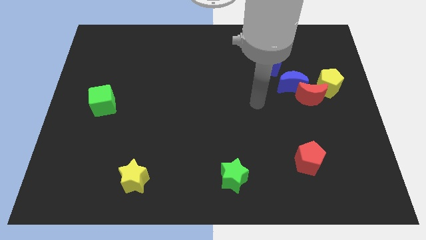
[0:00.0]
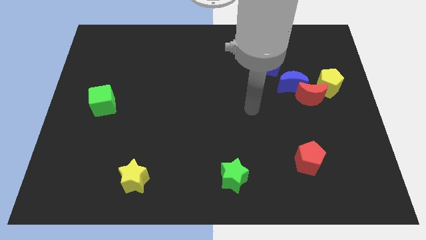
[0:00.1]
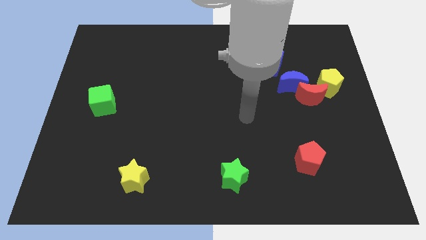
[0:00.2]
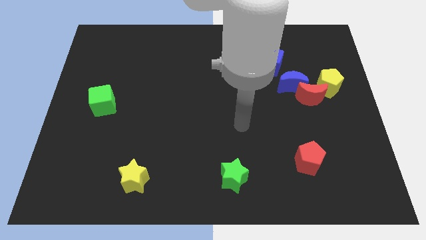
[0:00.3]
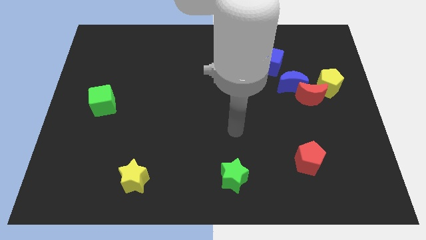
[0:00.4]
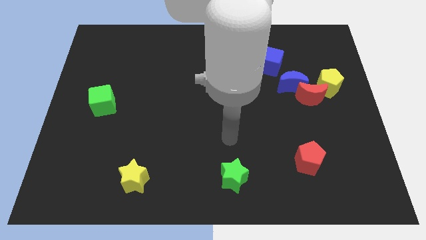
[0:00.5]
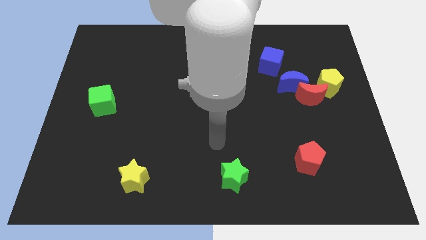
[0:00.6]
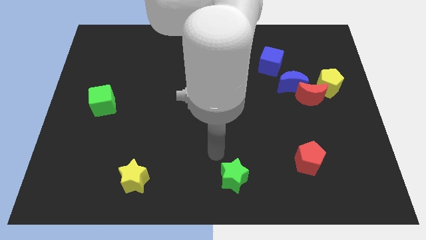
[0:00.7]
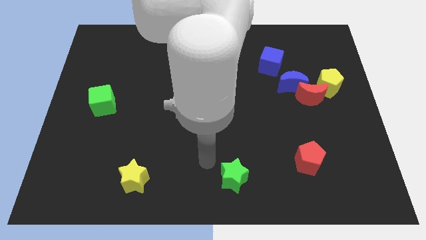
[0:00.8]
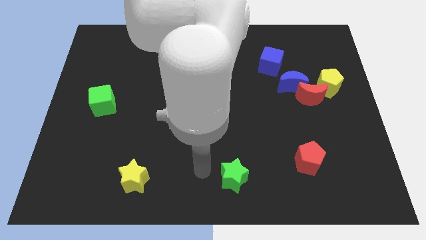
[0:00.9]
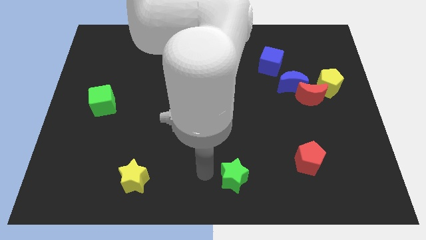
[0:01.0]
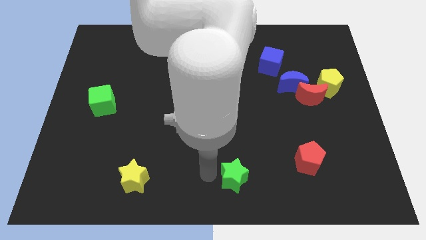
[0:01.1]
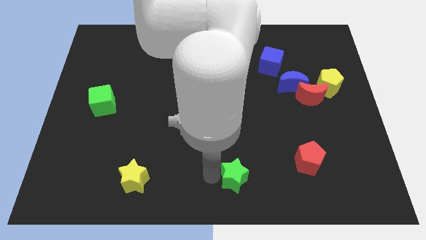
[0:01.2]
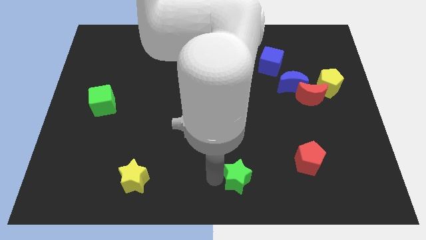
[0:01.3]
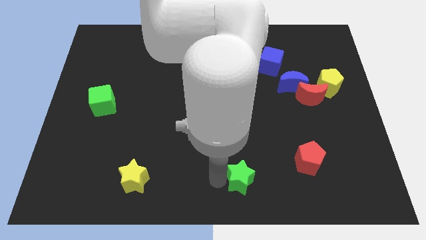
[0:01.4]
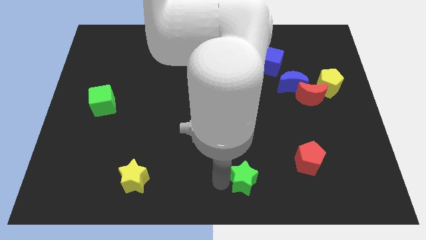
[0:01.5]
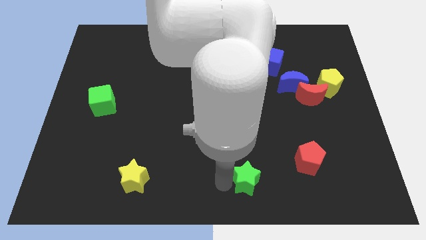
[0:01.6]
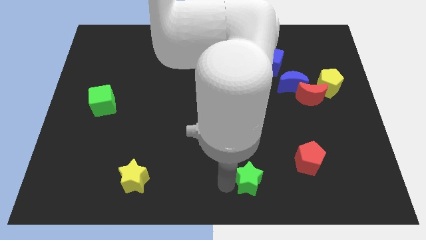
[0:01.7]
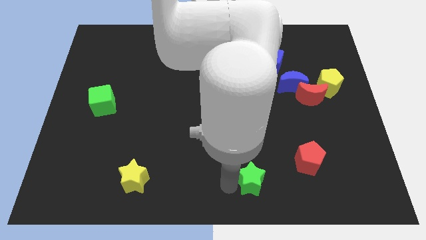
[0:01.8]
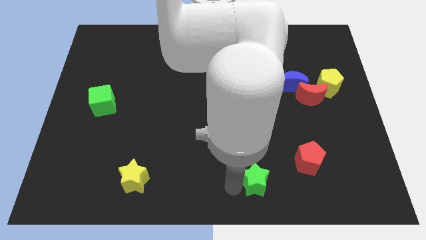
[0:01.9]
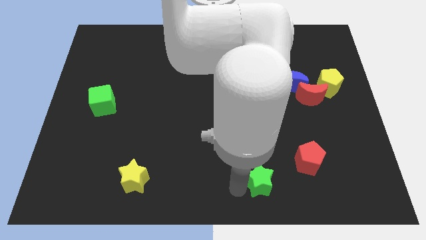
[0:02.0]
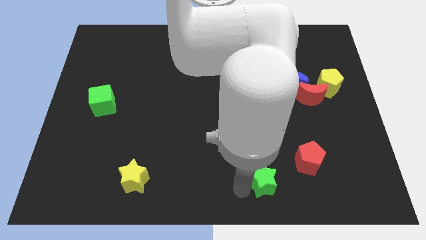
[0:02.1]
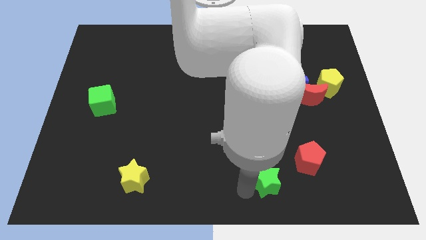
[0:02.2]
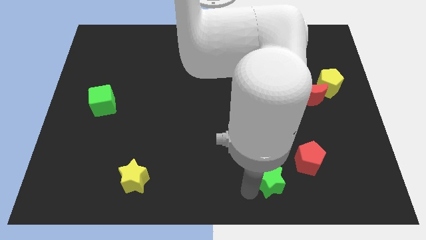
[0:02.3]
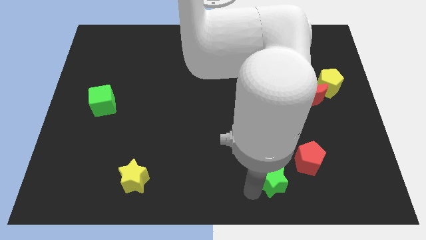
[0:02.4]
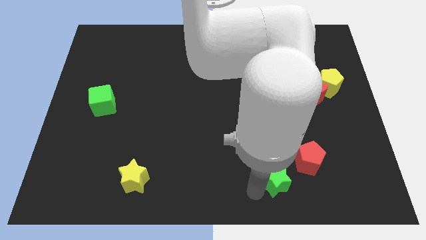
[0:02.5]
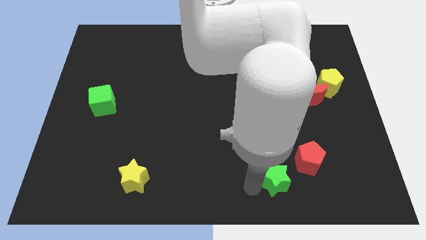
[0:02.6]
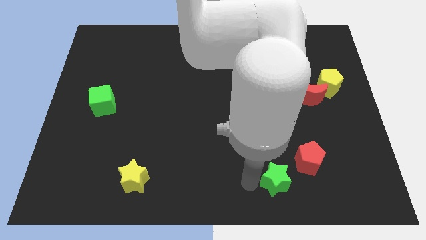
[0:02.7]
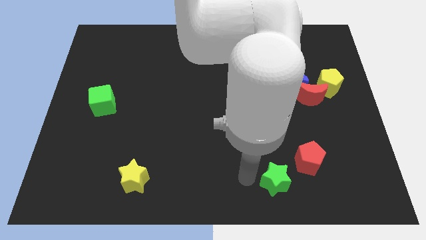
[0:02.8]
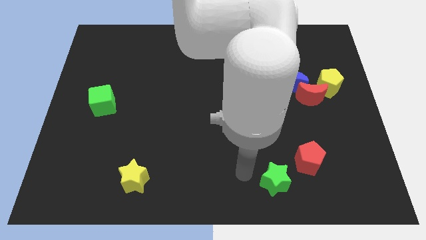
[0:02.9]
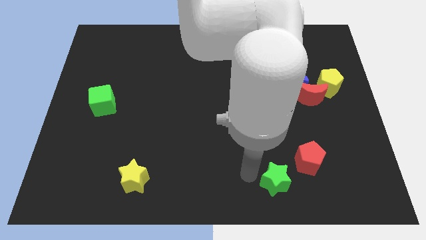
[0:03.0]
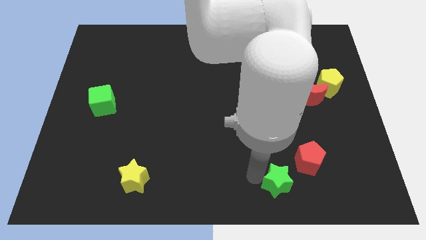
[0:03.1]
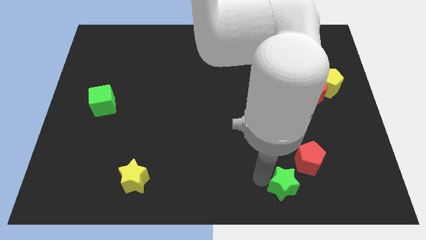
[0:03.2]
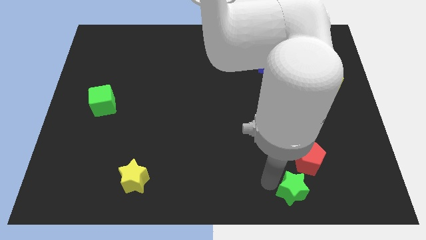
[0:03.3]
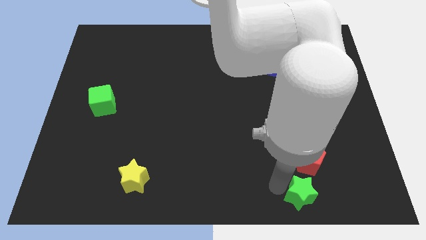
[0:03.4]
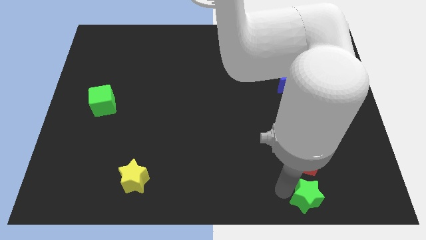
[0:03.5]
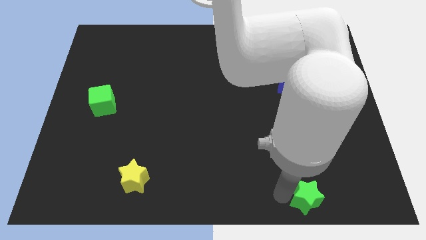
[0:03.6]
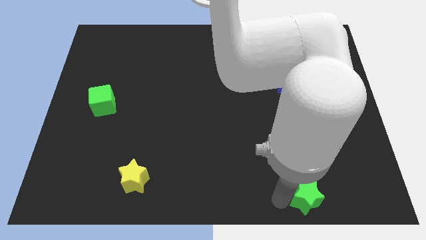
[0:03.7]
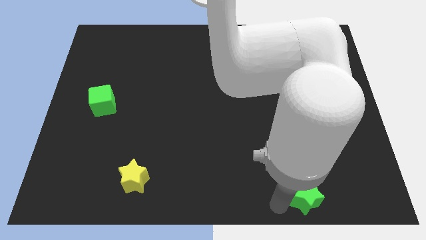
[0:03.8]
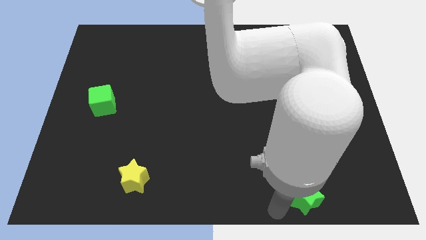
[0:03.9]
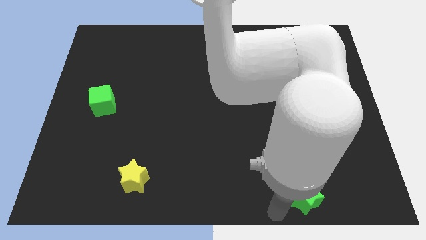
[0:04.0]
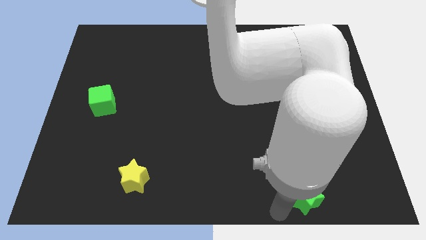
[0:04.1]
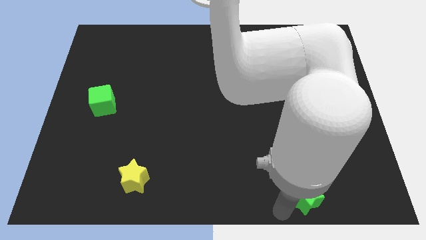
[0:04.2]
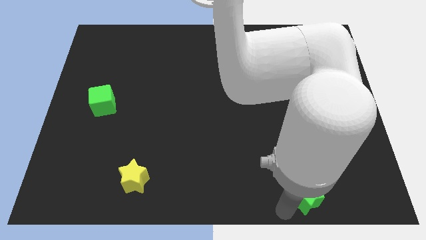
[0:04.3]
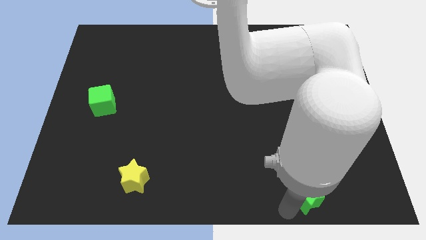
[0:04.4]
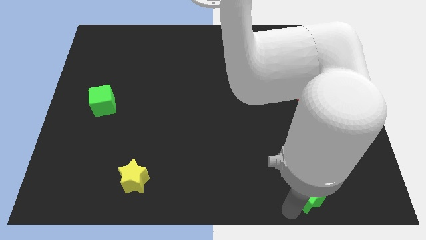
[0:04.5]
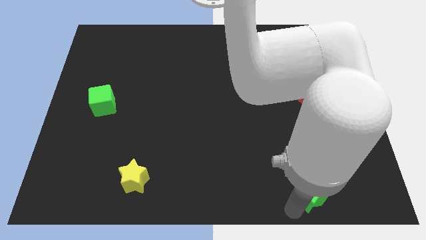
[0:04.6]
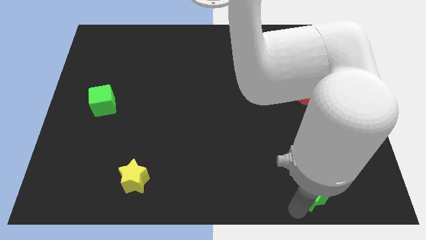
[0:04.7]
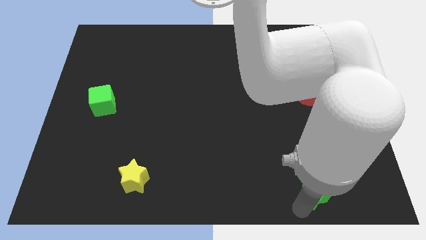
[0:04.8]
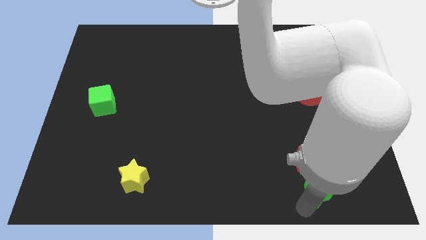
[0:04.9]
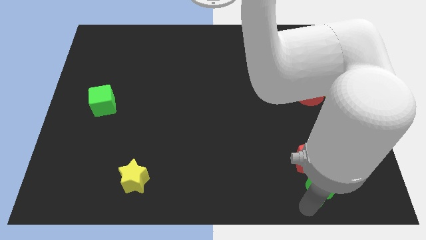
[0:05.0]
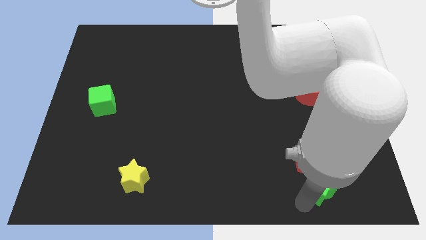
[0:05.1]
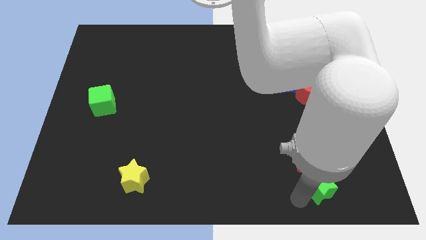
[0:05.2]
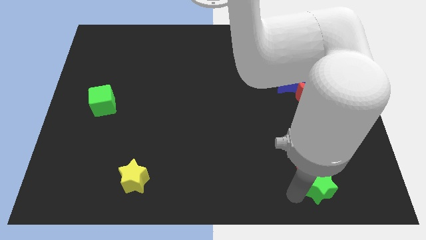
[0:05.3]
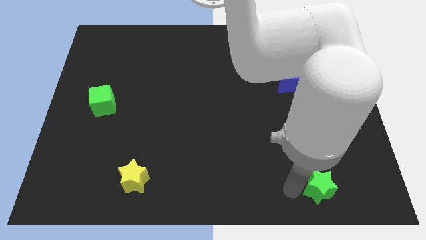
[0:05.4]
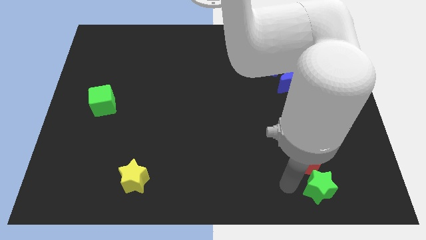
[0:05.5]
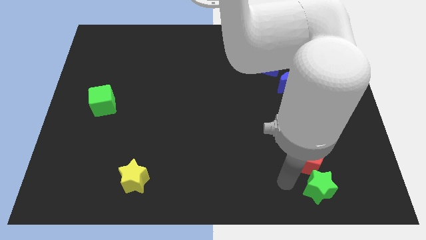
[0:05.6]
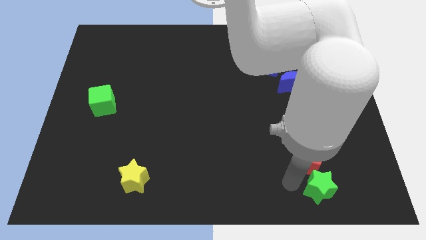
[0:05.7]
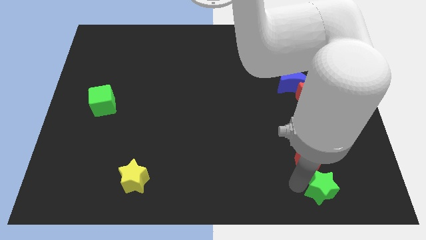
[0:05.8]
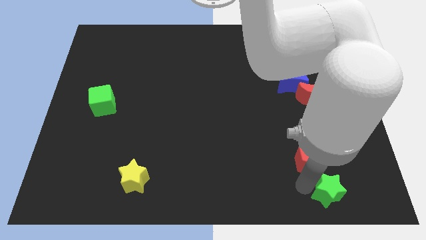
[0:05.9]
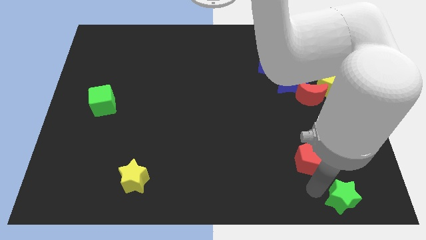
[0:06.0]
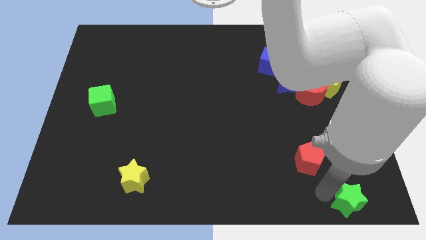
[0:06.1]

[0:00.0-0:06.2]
slide the green star to the bottom right of the board

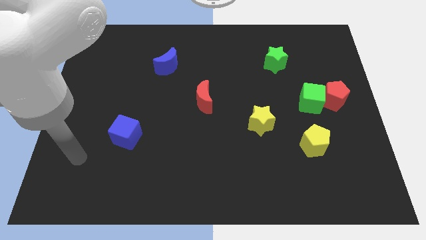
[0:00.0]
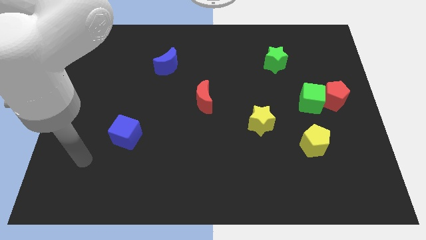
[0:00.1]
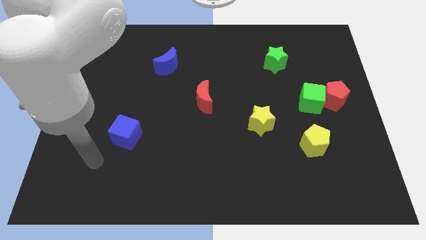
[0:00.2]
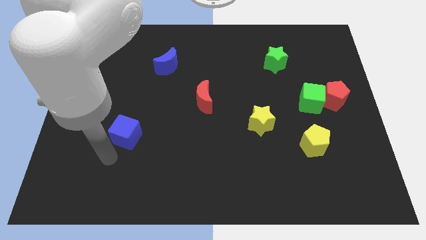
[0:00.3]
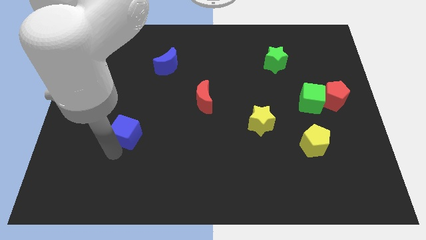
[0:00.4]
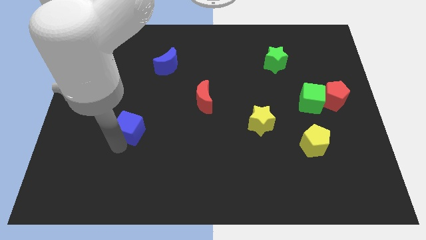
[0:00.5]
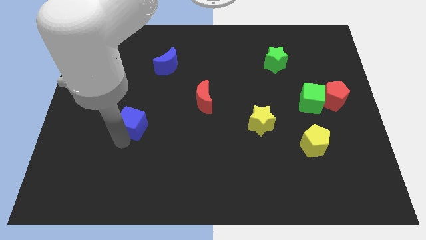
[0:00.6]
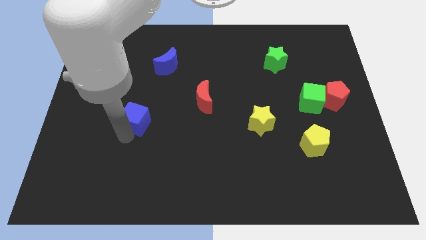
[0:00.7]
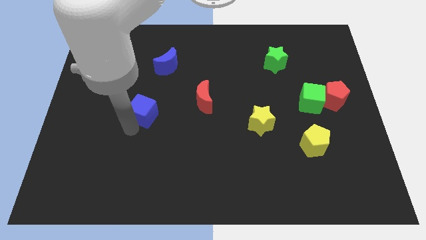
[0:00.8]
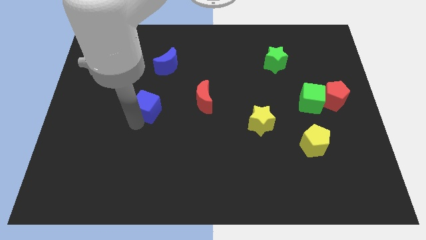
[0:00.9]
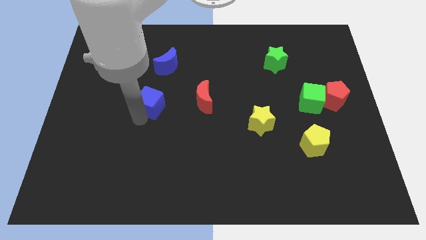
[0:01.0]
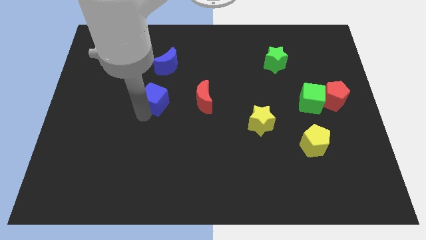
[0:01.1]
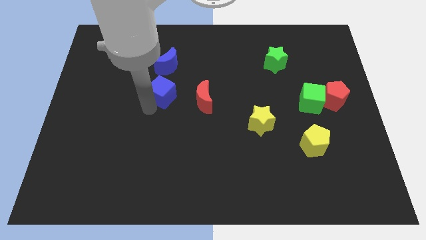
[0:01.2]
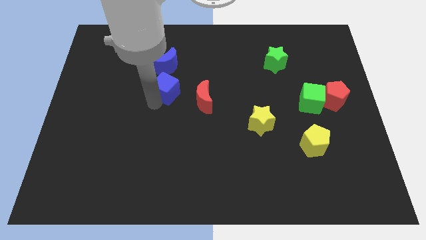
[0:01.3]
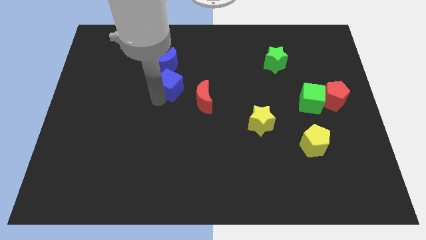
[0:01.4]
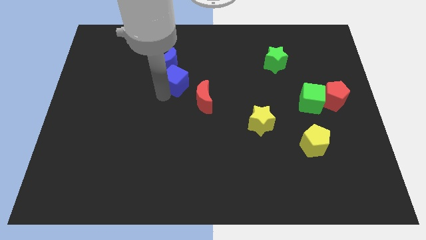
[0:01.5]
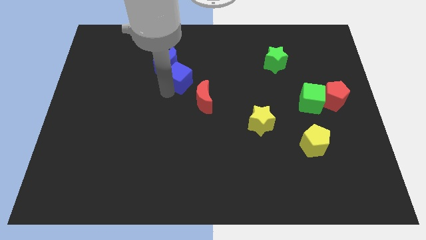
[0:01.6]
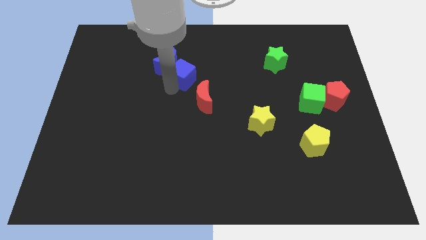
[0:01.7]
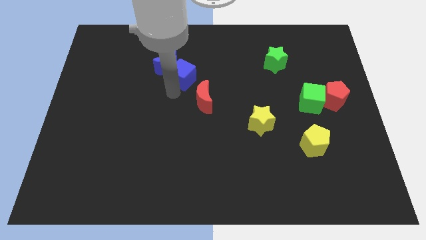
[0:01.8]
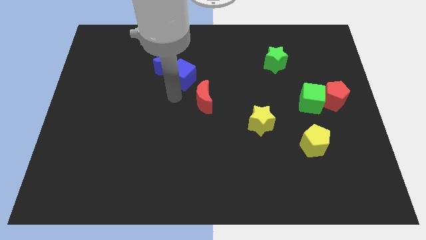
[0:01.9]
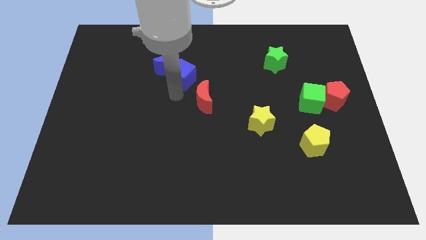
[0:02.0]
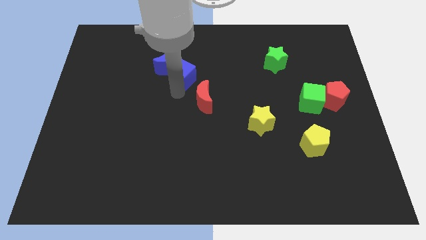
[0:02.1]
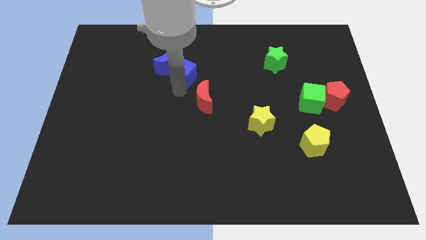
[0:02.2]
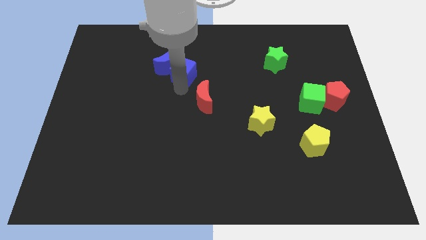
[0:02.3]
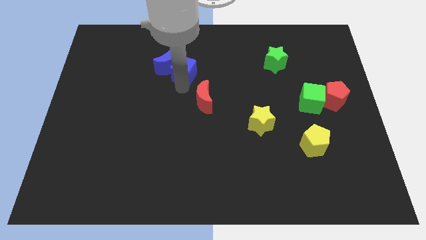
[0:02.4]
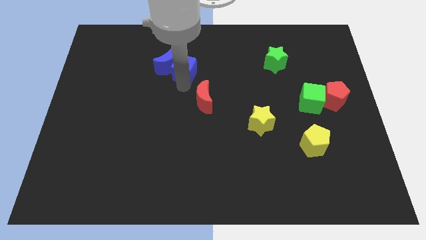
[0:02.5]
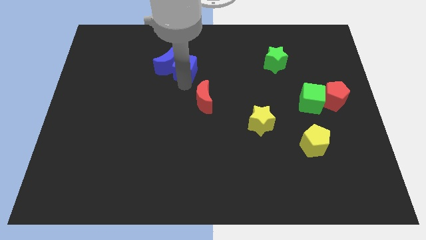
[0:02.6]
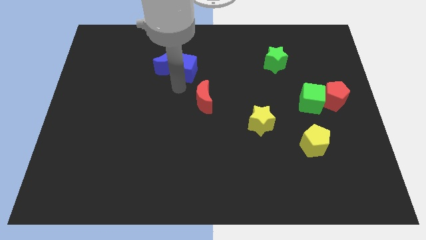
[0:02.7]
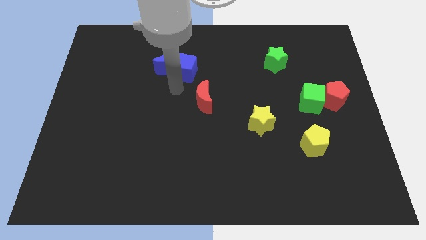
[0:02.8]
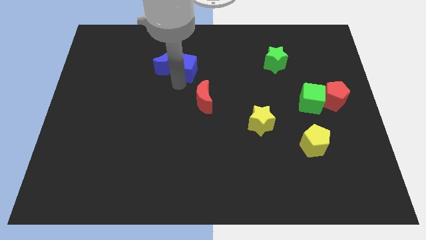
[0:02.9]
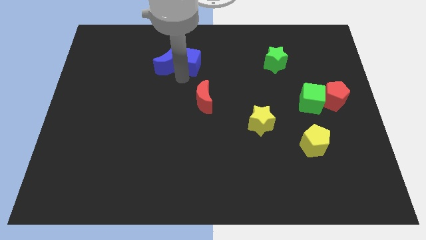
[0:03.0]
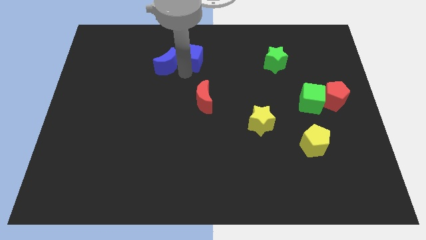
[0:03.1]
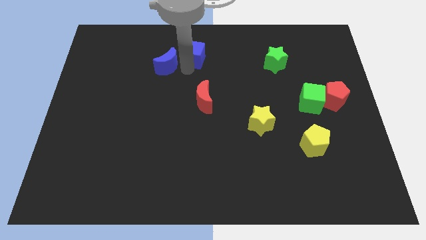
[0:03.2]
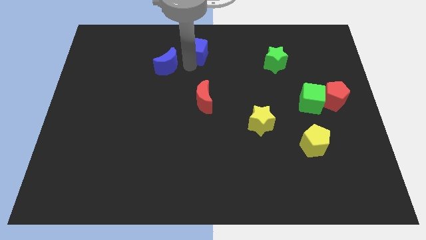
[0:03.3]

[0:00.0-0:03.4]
slide the blue cube to the towards your base
